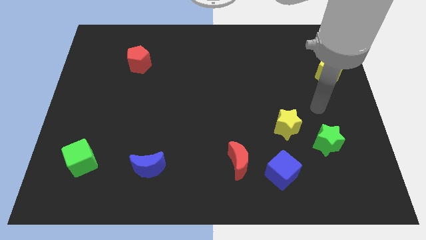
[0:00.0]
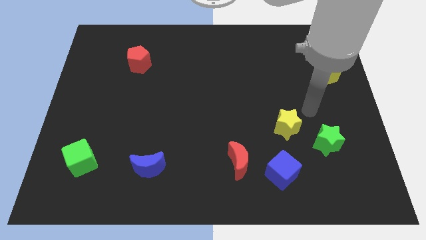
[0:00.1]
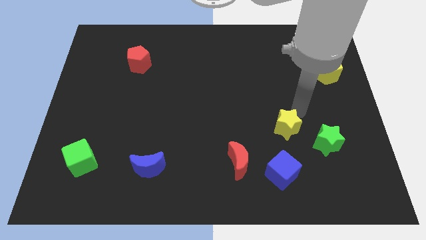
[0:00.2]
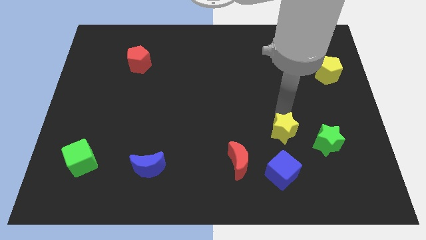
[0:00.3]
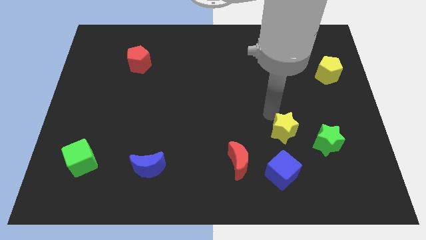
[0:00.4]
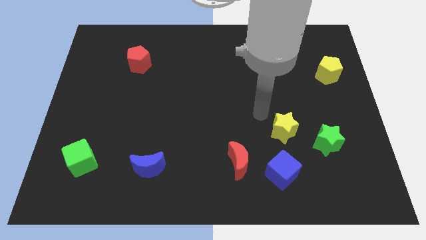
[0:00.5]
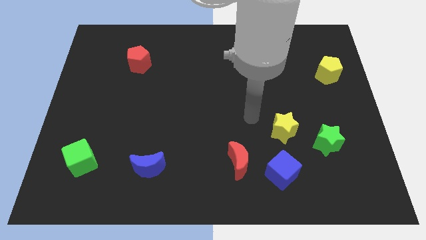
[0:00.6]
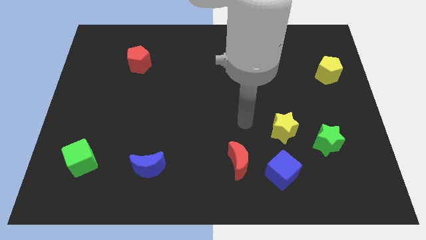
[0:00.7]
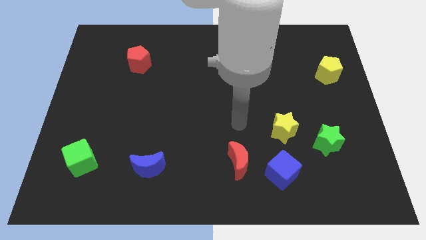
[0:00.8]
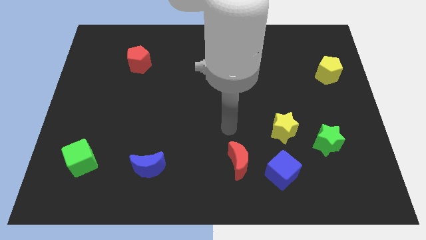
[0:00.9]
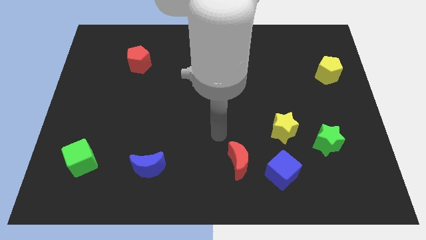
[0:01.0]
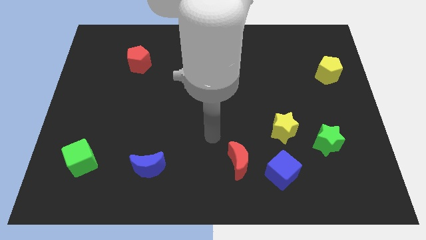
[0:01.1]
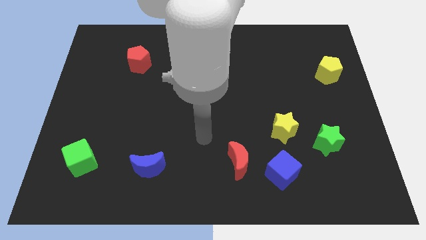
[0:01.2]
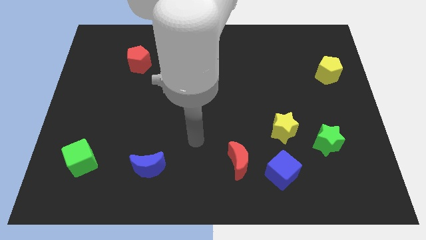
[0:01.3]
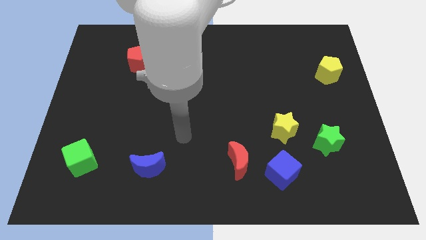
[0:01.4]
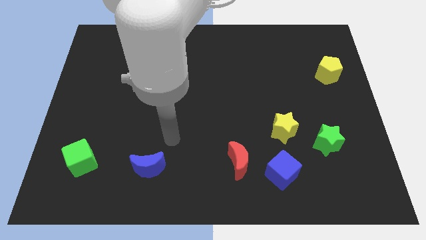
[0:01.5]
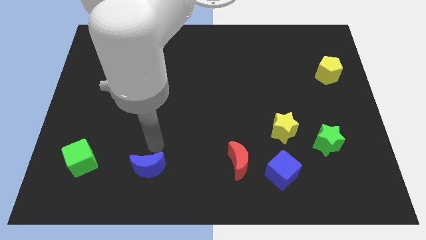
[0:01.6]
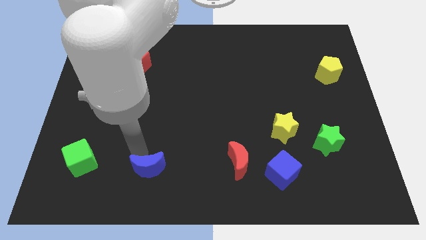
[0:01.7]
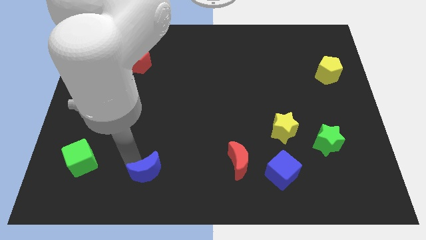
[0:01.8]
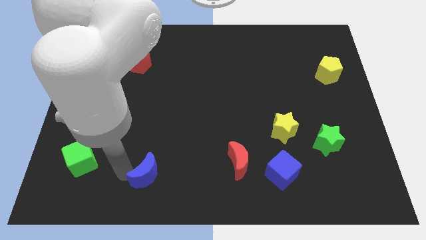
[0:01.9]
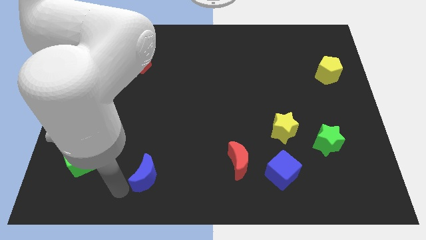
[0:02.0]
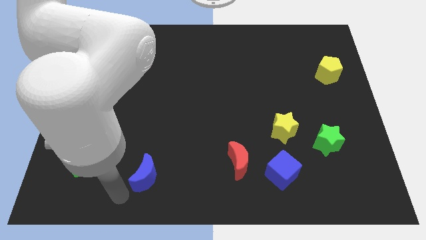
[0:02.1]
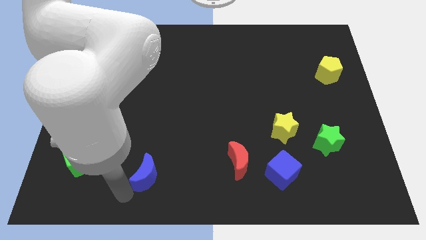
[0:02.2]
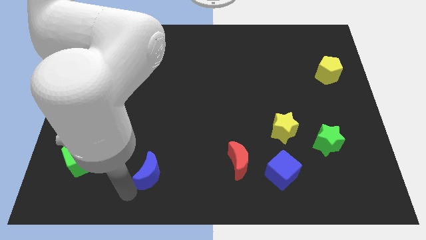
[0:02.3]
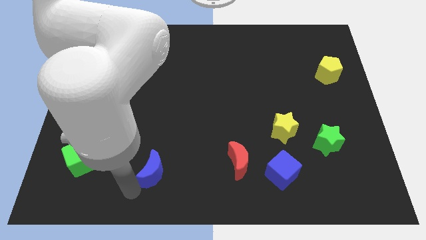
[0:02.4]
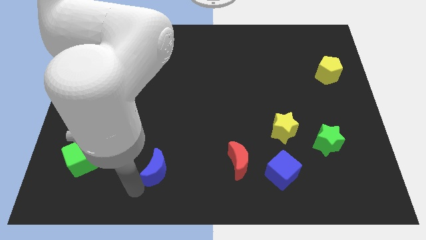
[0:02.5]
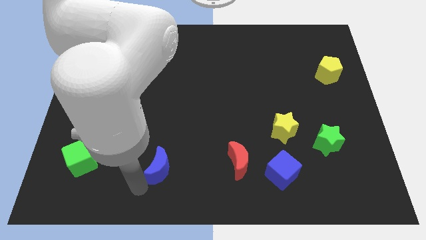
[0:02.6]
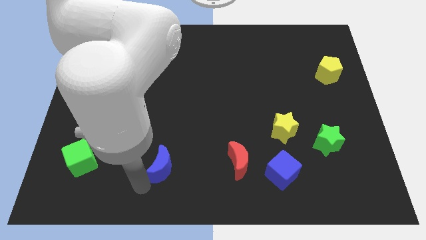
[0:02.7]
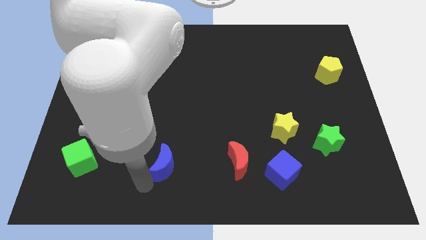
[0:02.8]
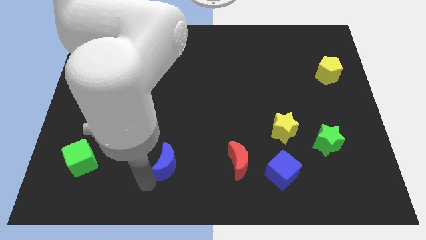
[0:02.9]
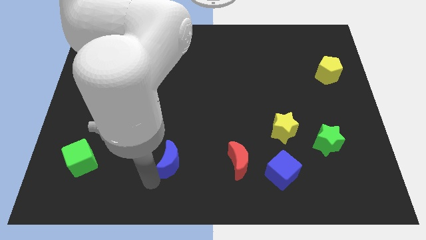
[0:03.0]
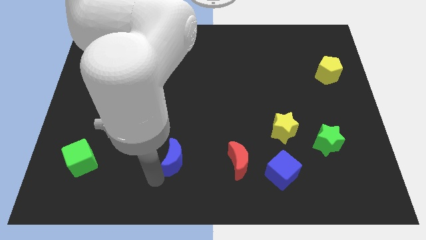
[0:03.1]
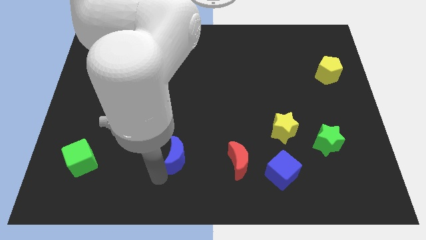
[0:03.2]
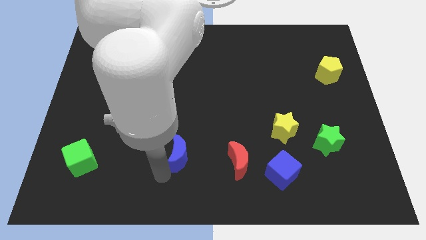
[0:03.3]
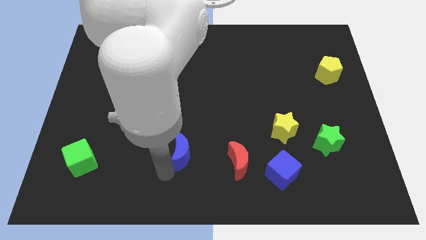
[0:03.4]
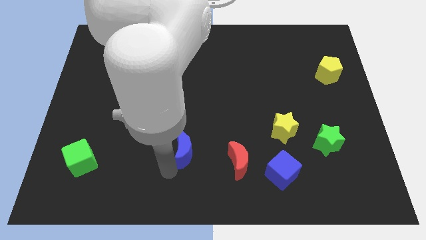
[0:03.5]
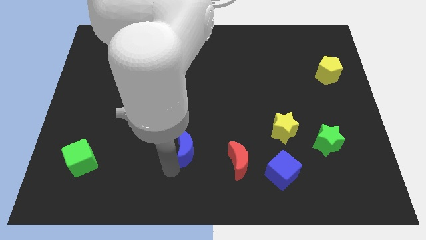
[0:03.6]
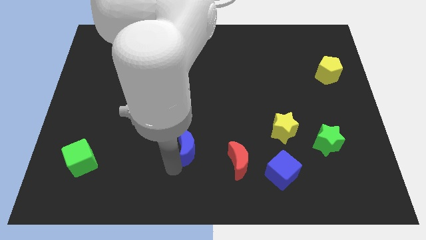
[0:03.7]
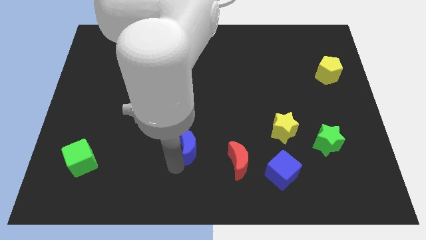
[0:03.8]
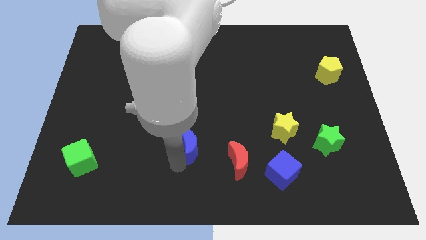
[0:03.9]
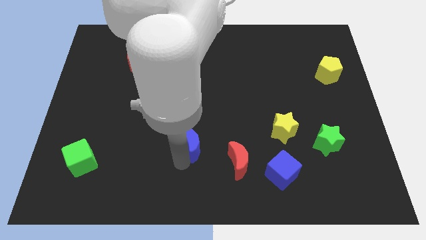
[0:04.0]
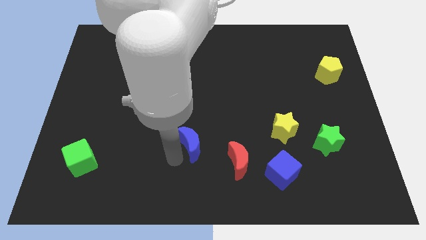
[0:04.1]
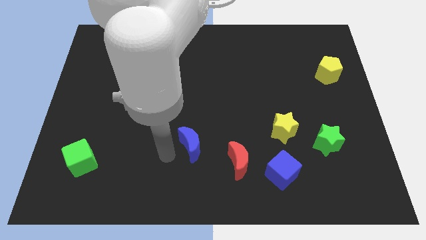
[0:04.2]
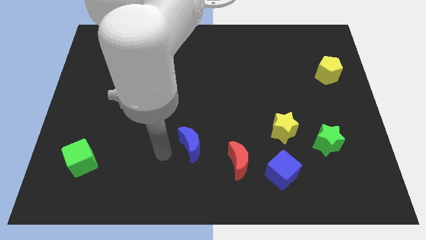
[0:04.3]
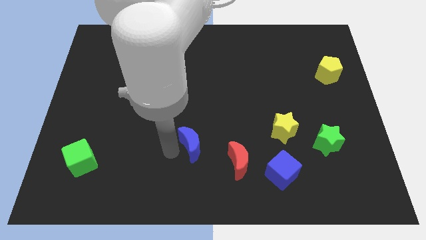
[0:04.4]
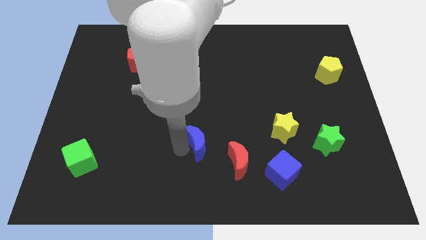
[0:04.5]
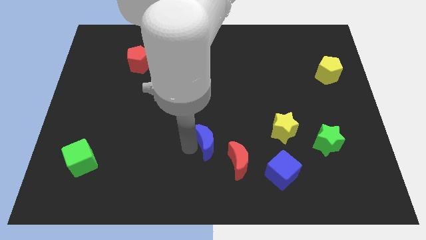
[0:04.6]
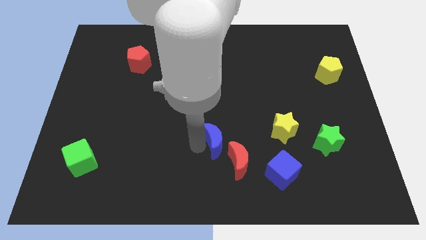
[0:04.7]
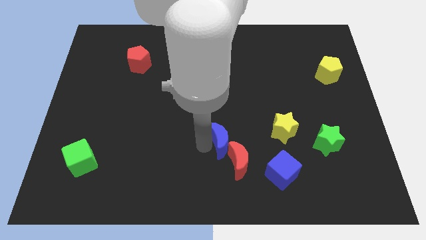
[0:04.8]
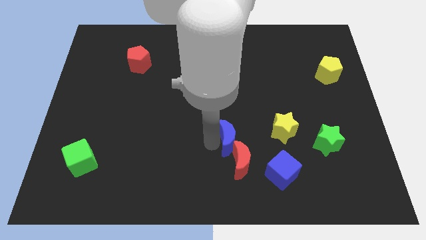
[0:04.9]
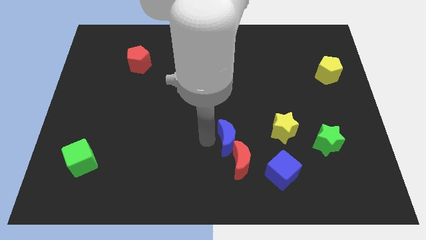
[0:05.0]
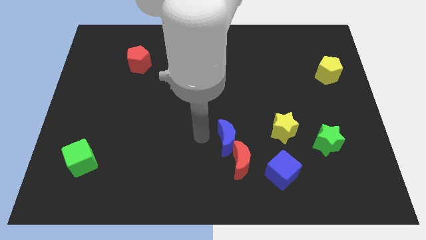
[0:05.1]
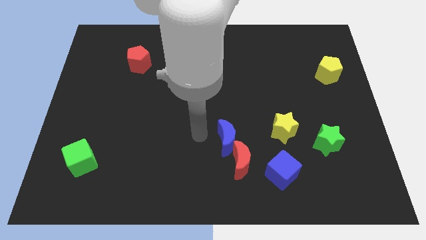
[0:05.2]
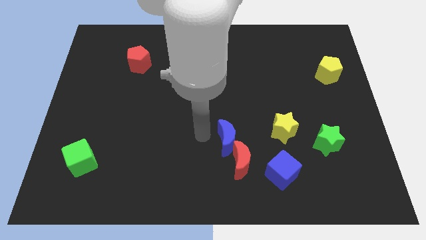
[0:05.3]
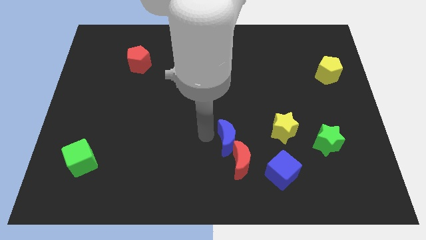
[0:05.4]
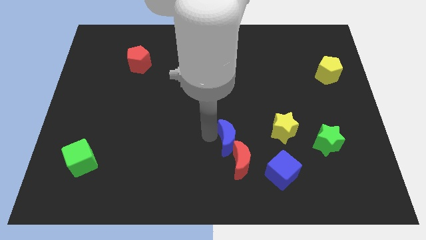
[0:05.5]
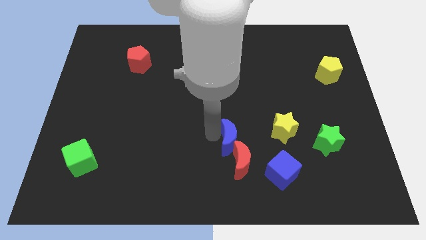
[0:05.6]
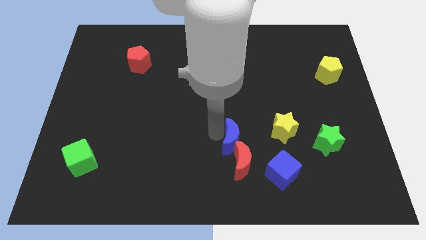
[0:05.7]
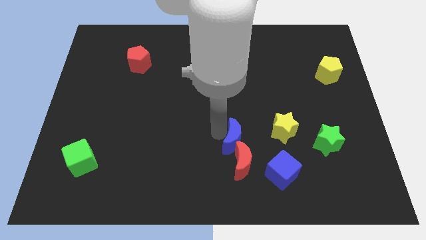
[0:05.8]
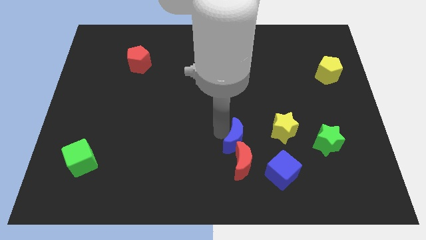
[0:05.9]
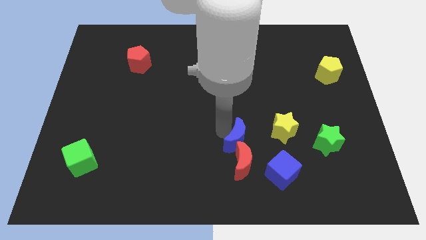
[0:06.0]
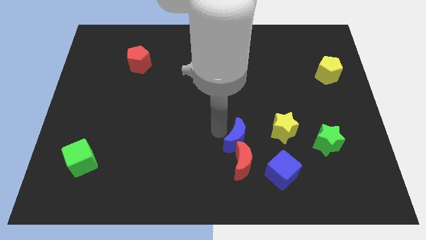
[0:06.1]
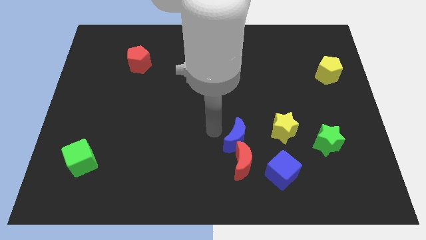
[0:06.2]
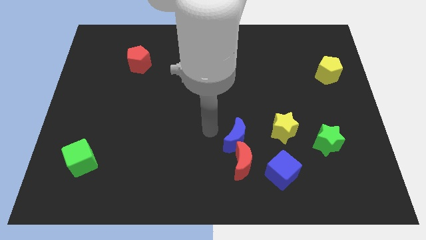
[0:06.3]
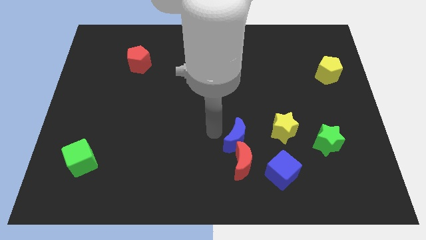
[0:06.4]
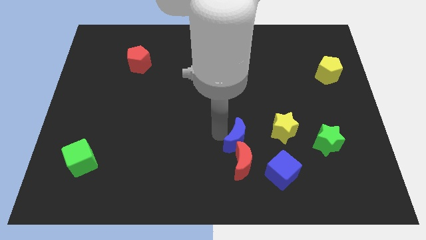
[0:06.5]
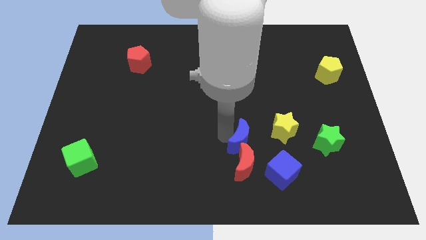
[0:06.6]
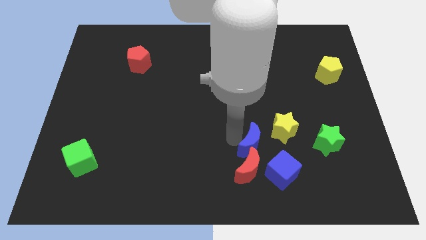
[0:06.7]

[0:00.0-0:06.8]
move the blue moon to the right

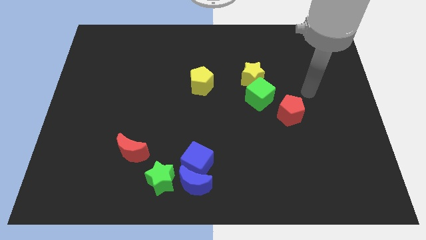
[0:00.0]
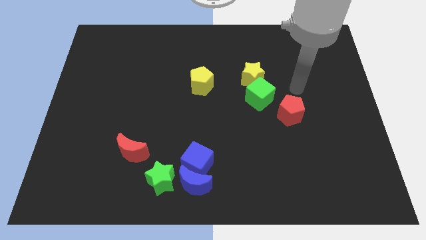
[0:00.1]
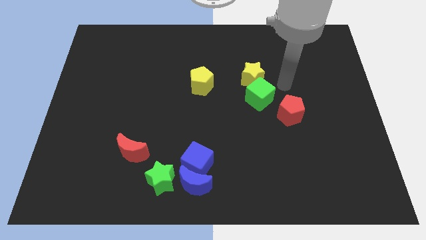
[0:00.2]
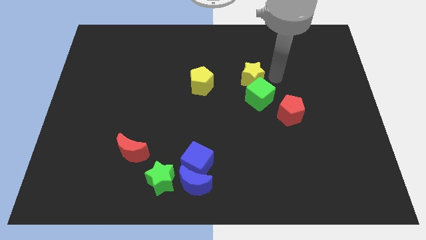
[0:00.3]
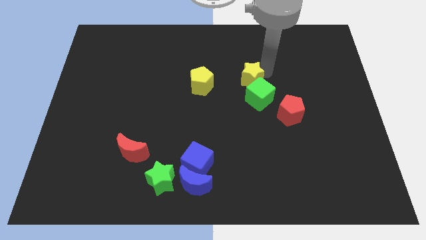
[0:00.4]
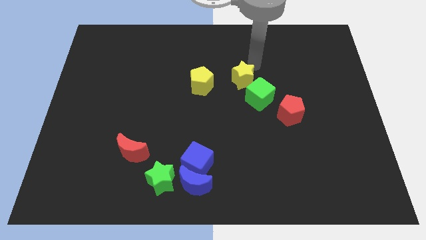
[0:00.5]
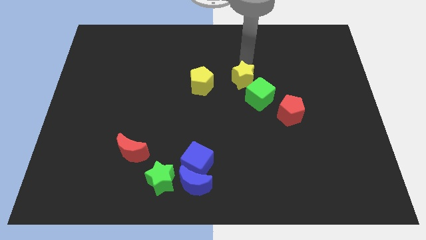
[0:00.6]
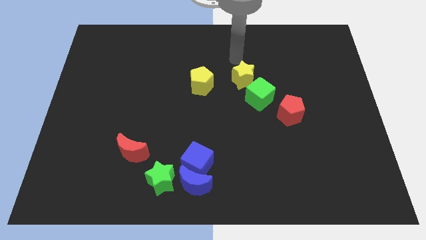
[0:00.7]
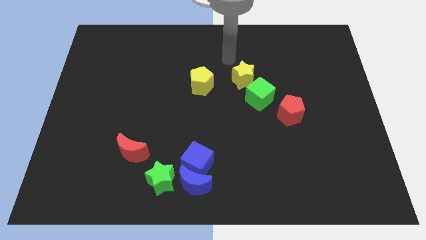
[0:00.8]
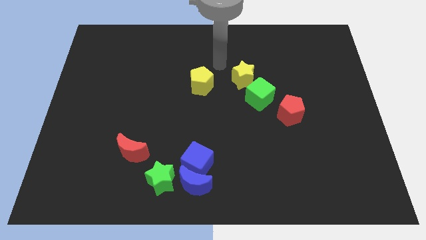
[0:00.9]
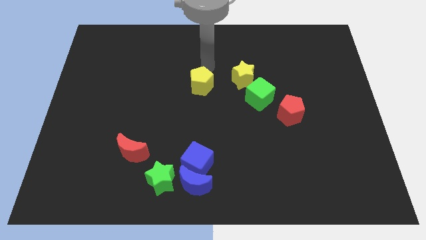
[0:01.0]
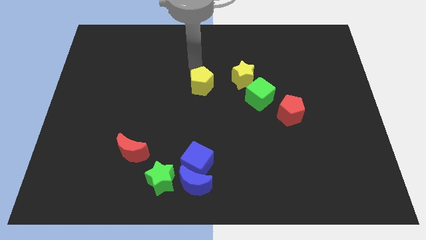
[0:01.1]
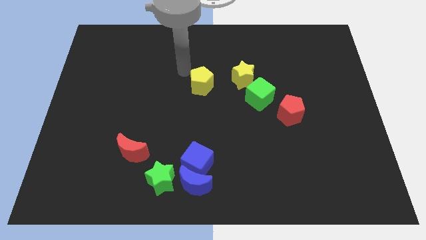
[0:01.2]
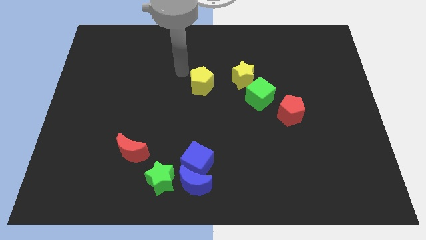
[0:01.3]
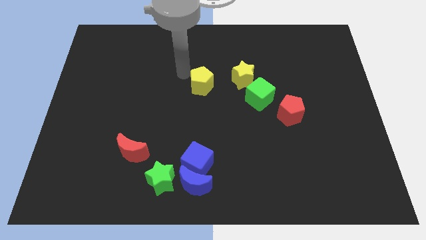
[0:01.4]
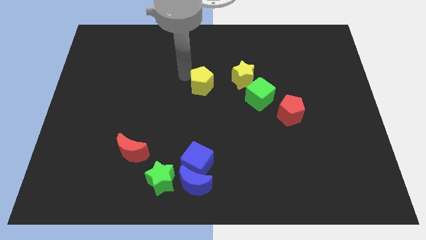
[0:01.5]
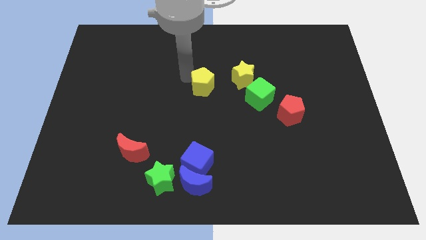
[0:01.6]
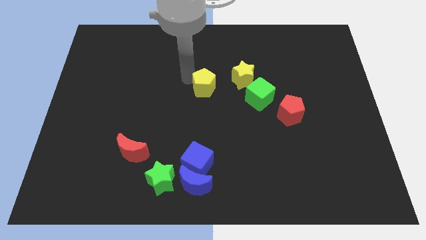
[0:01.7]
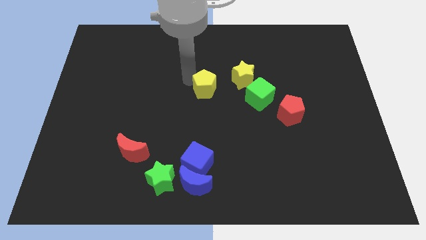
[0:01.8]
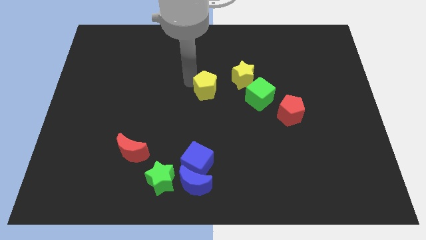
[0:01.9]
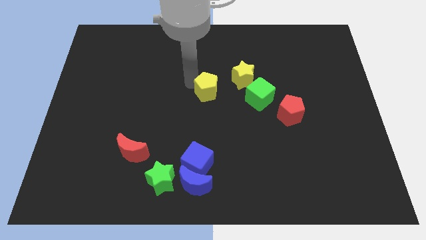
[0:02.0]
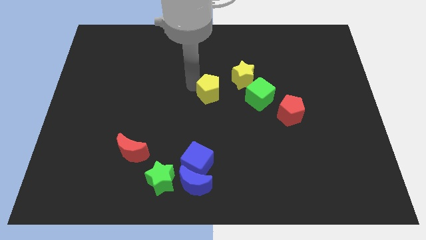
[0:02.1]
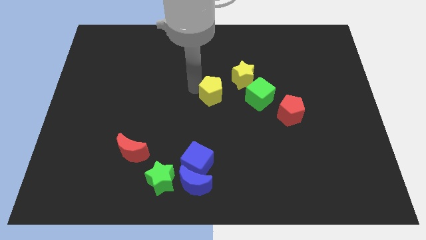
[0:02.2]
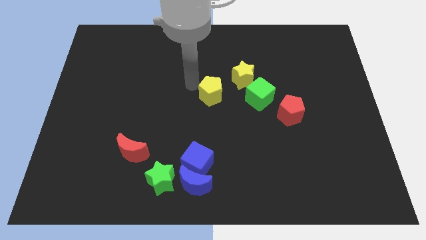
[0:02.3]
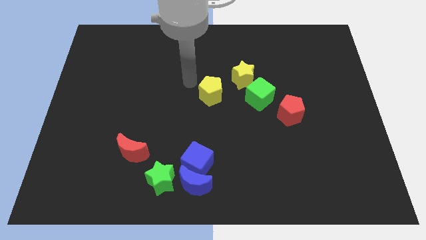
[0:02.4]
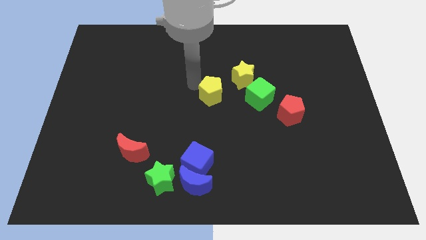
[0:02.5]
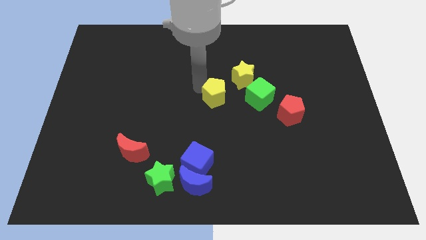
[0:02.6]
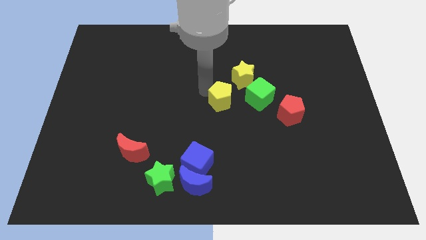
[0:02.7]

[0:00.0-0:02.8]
slide the yellow pentagon down and right diagonally slightly
